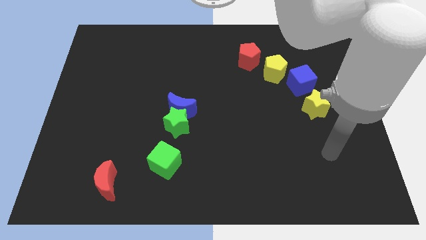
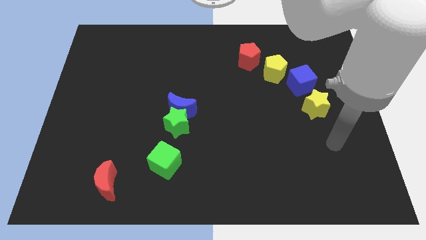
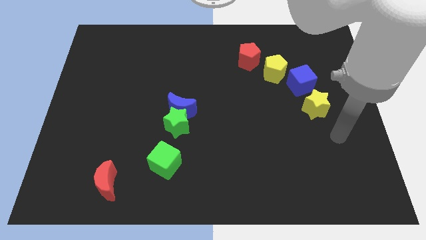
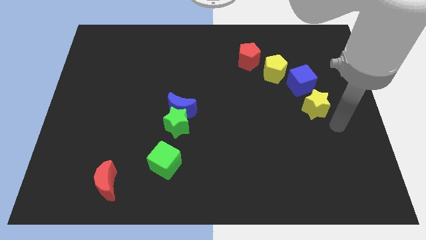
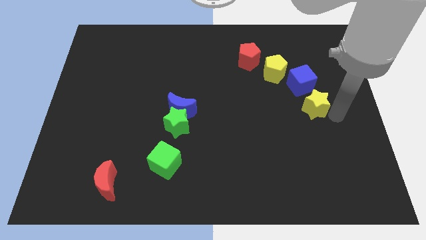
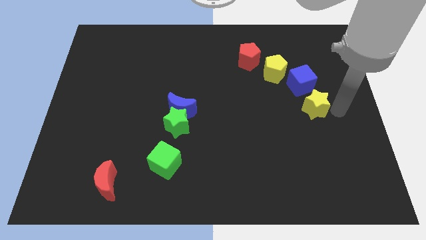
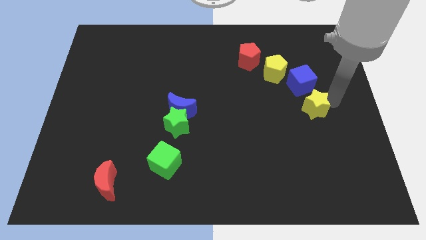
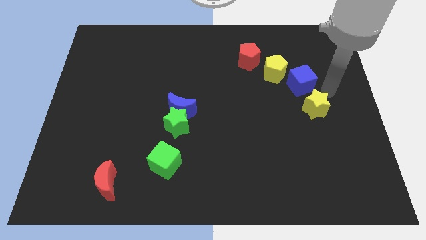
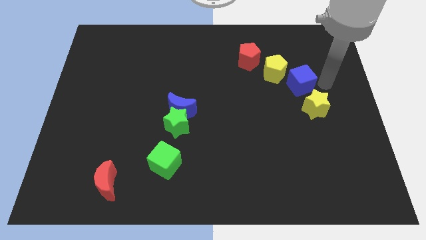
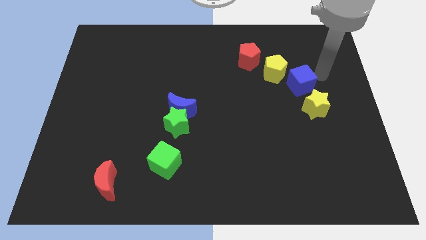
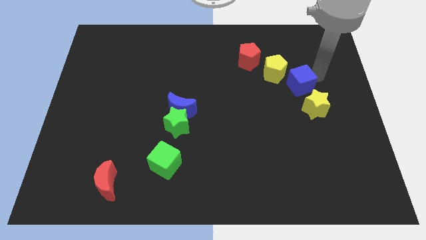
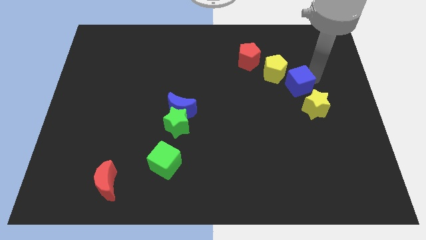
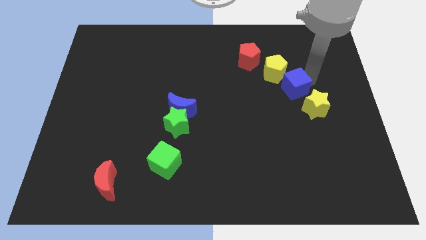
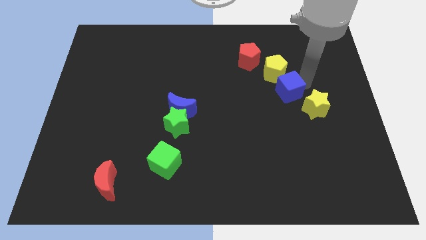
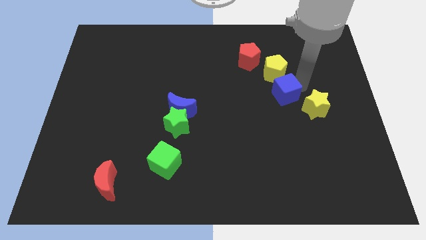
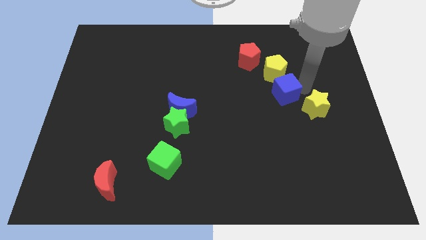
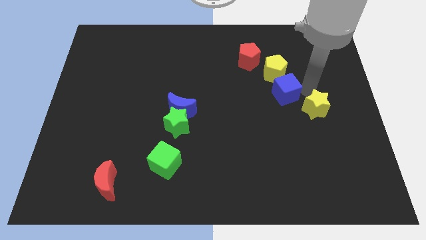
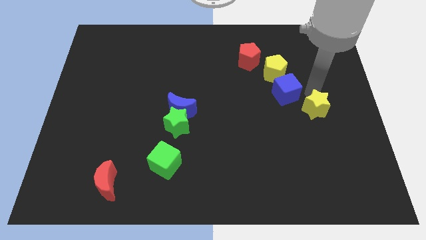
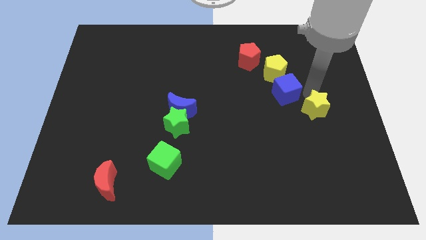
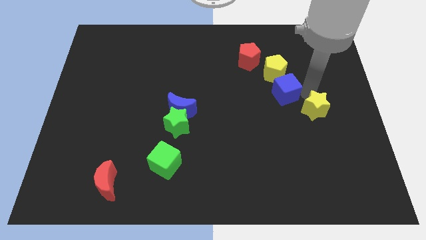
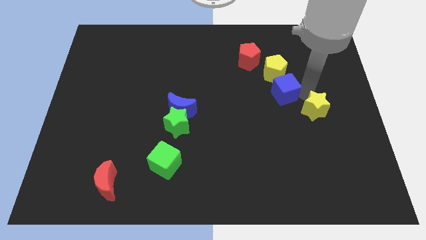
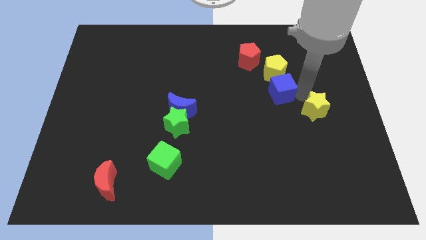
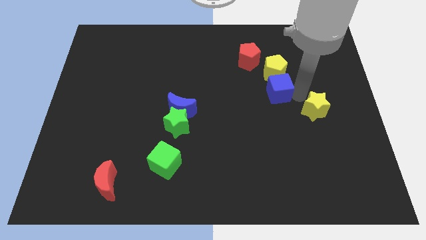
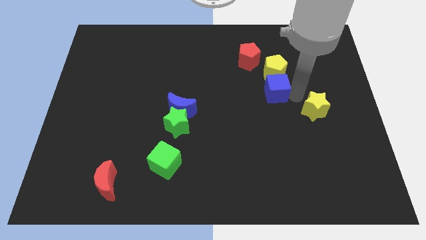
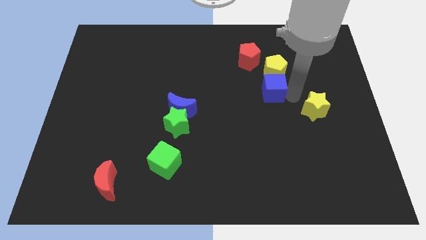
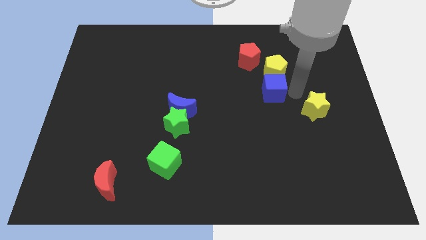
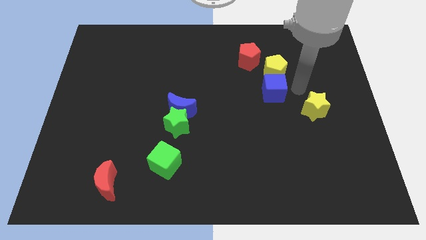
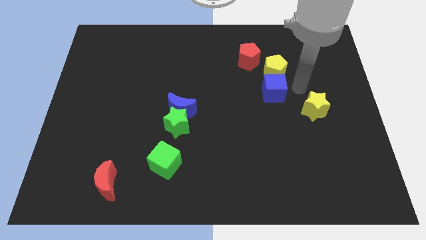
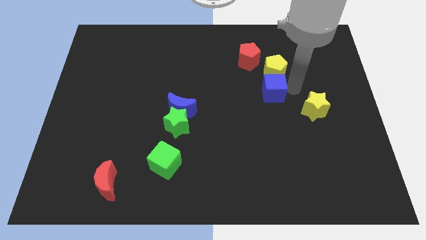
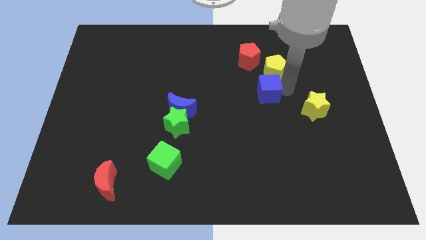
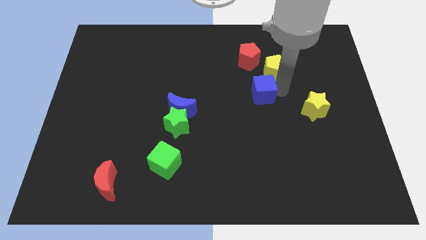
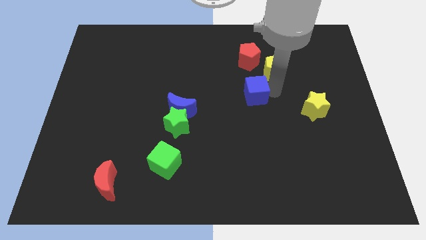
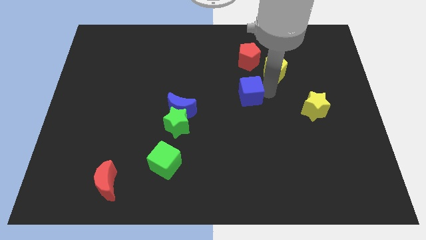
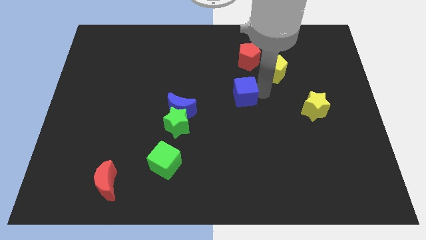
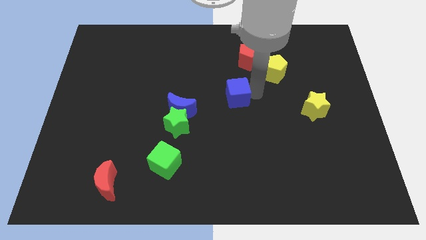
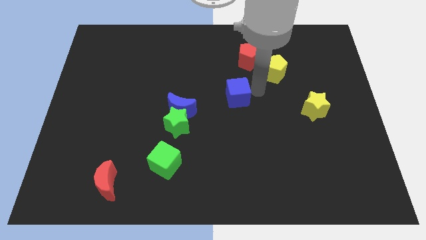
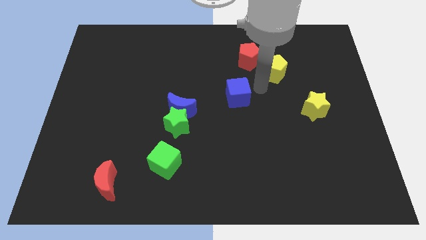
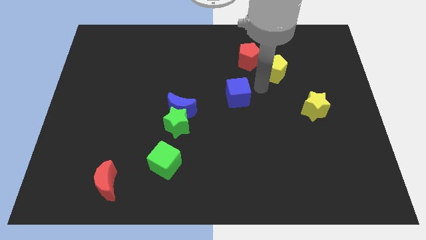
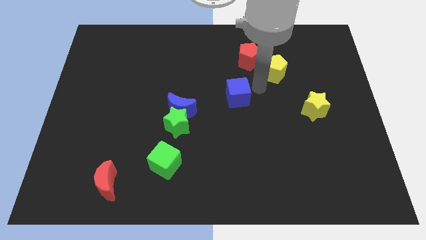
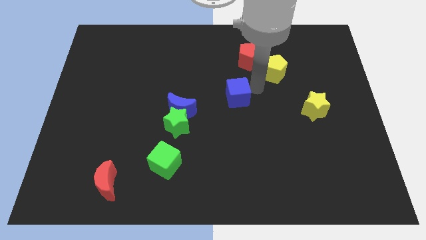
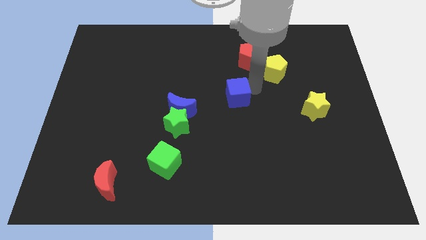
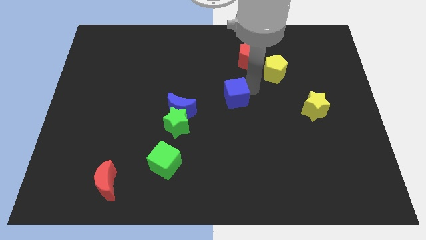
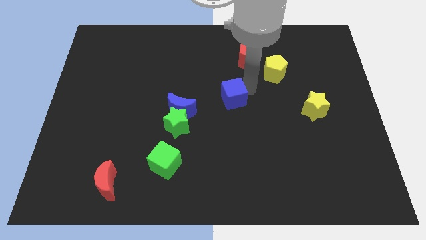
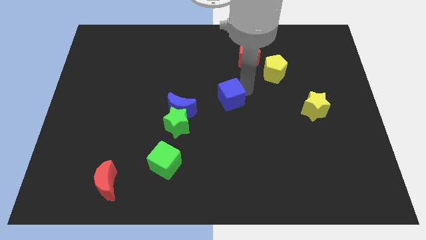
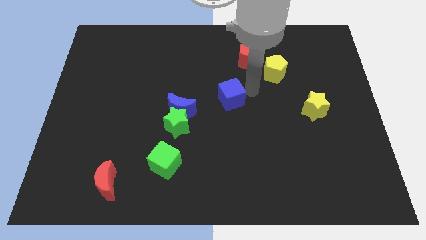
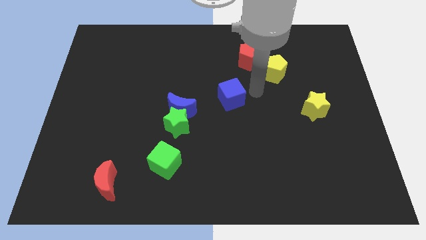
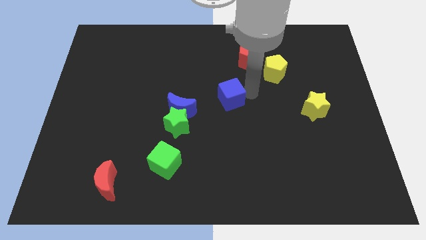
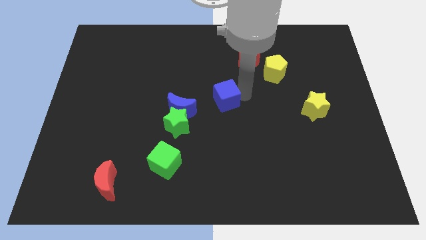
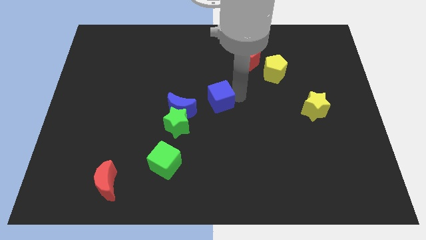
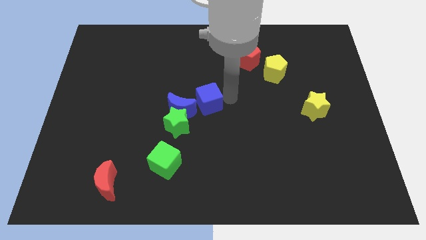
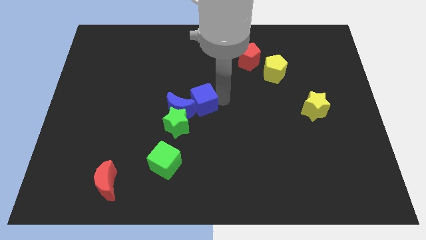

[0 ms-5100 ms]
put the blue cube to the blue moon

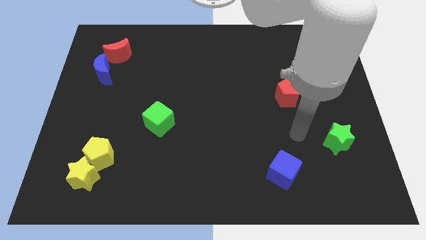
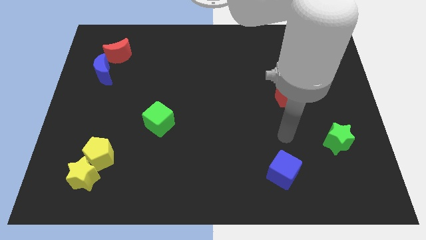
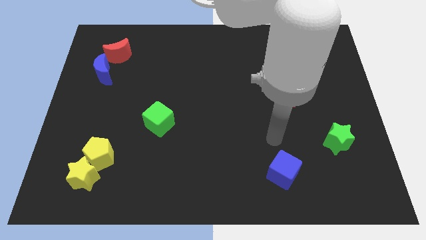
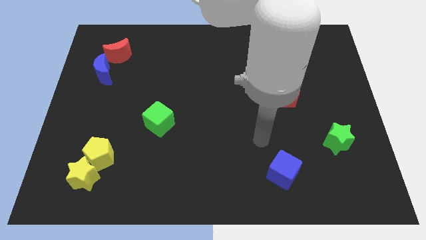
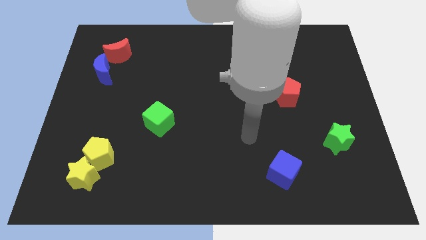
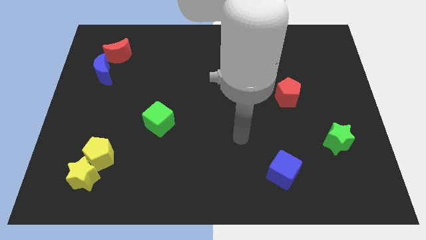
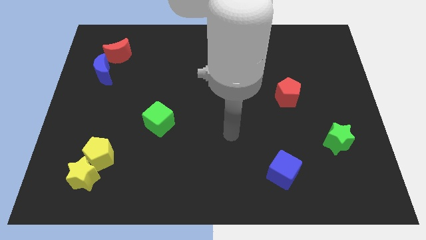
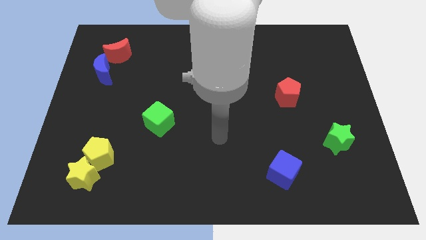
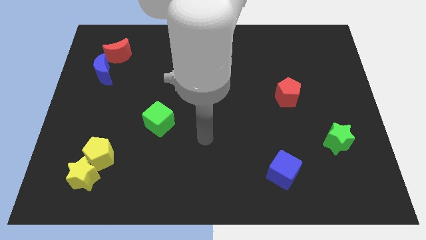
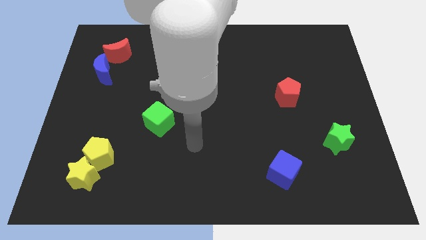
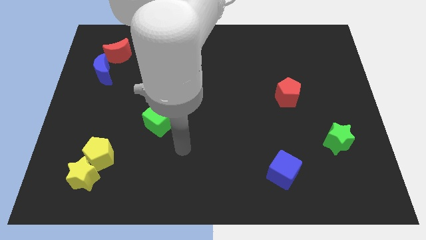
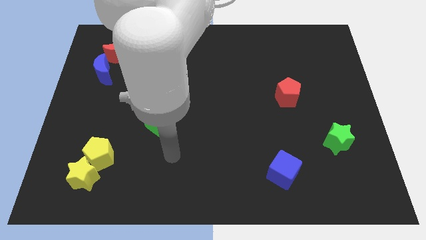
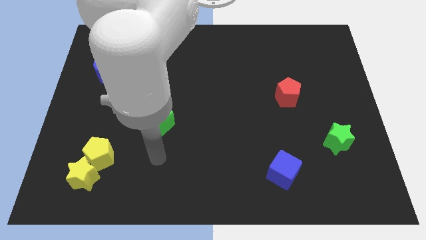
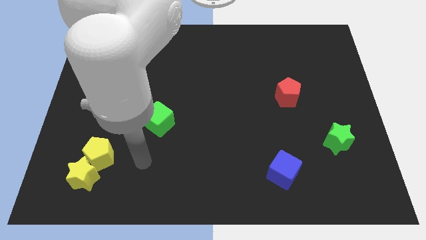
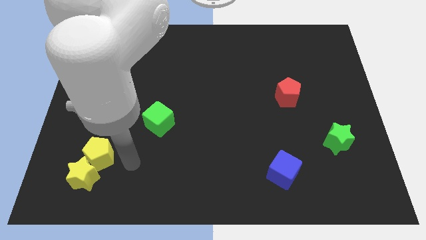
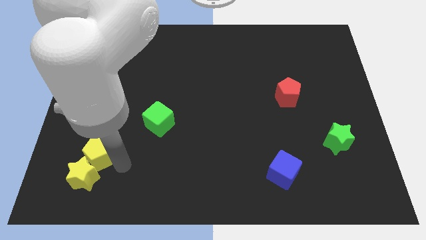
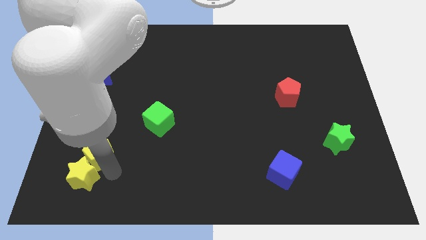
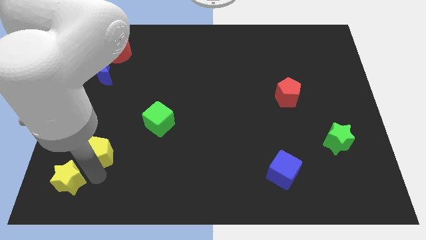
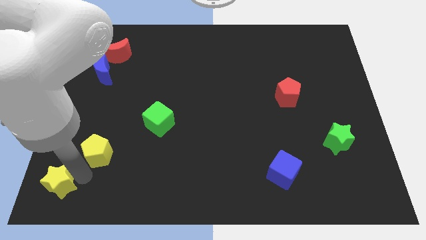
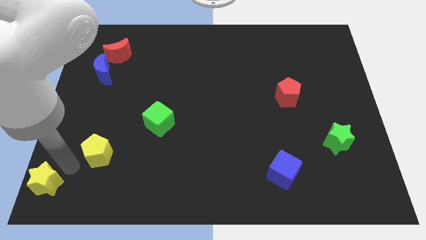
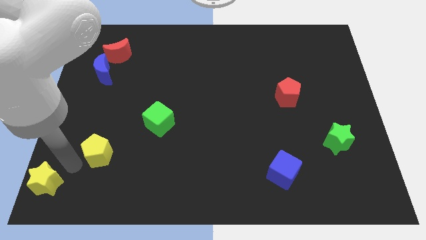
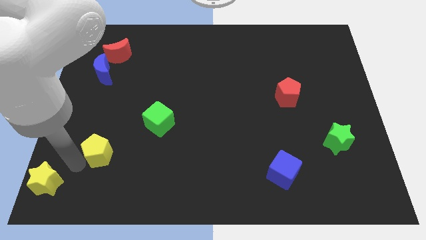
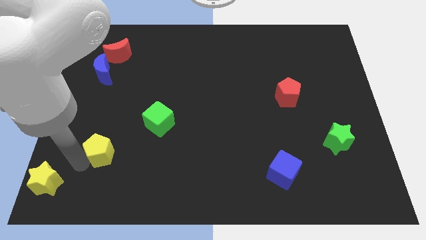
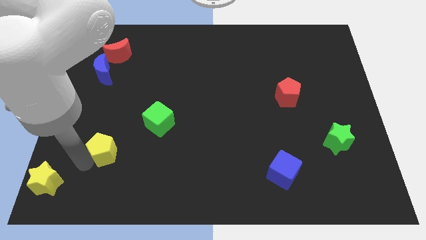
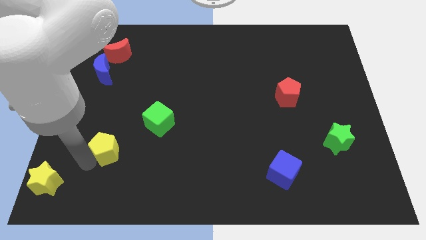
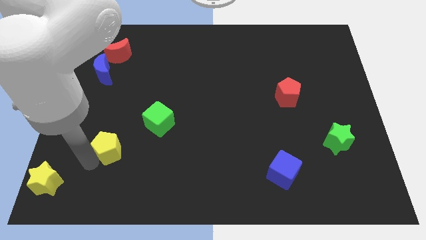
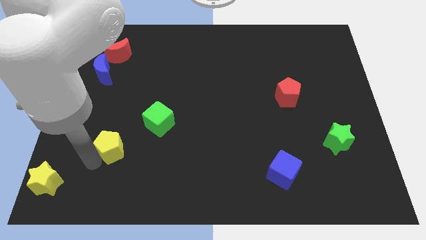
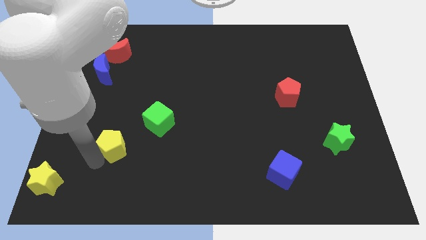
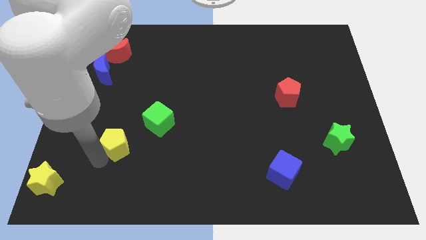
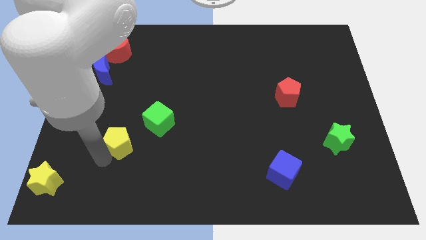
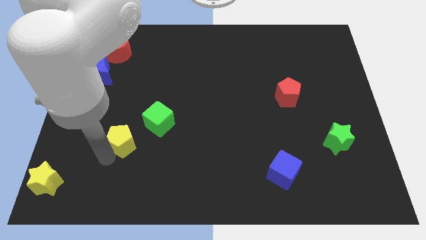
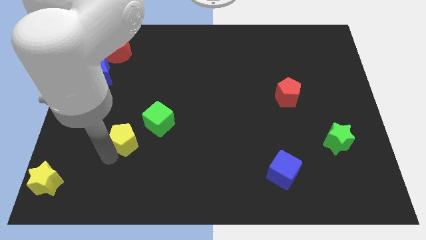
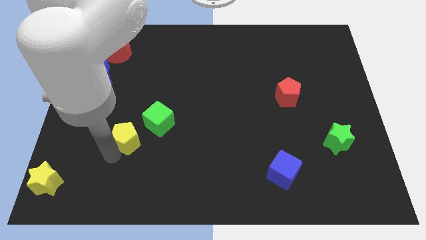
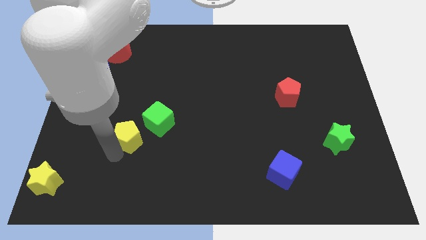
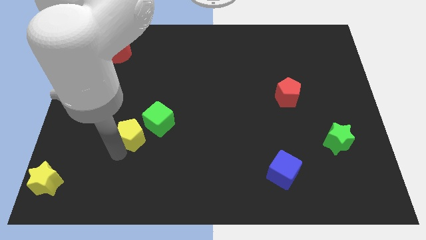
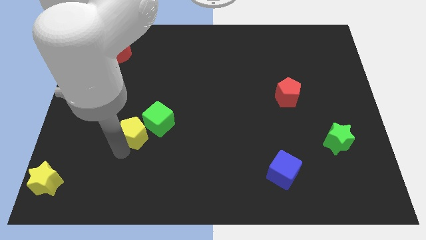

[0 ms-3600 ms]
push the yellow pentagon next to the green cube
